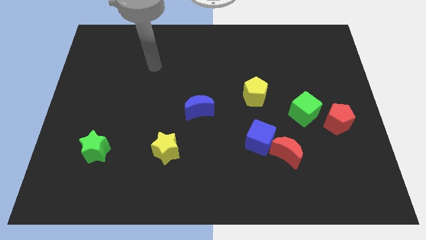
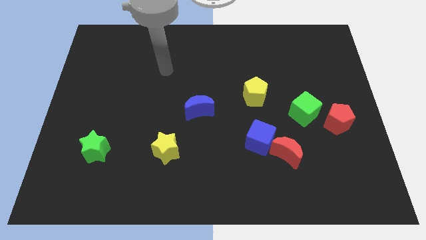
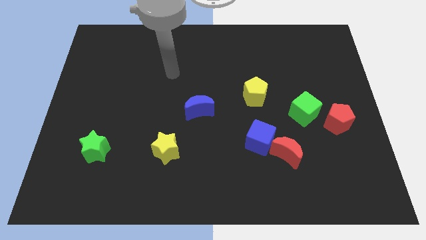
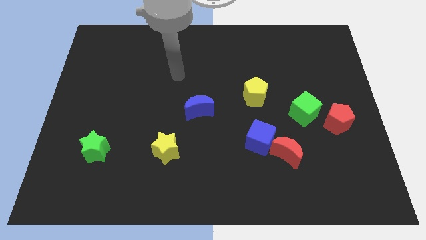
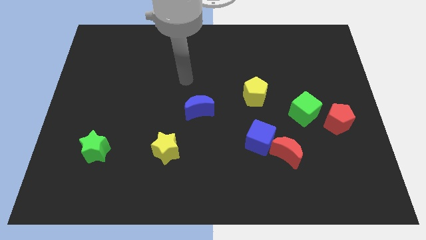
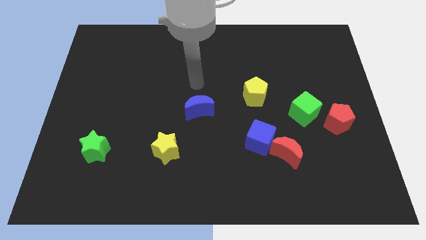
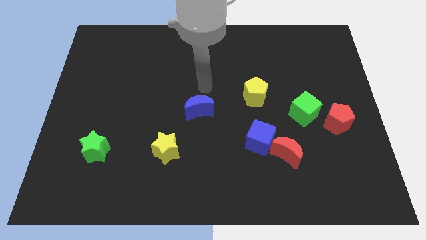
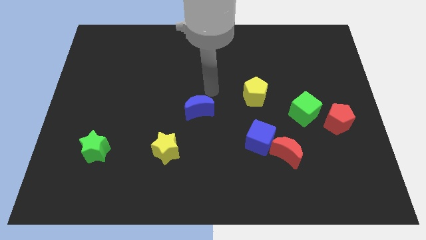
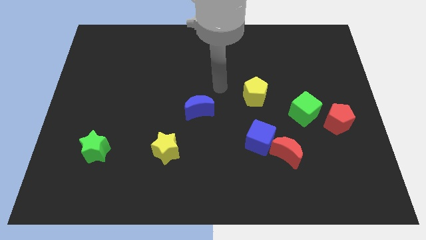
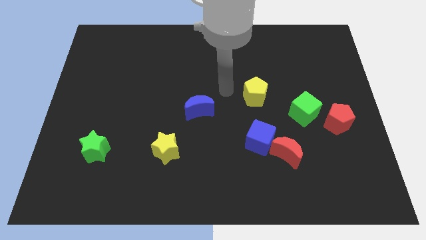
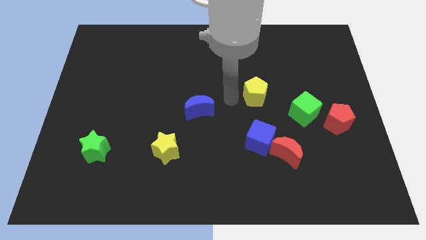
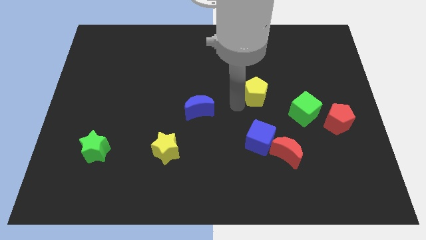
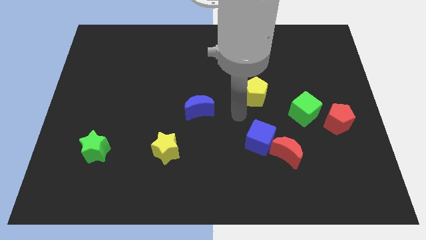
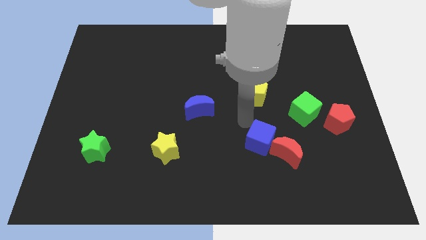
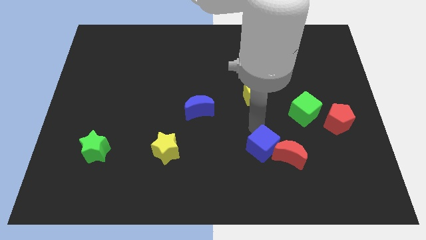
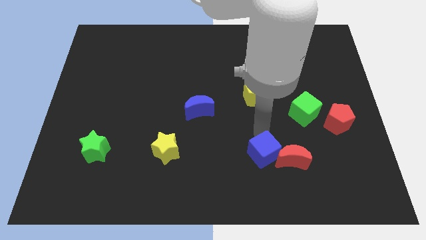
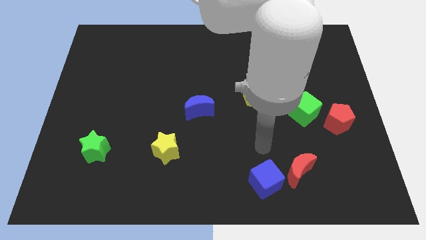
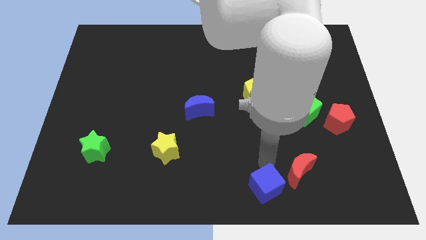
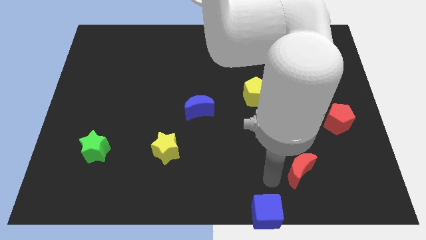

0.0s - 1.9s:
move the red moon away from the blue cube

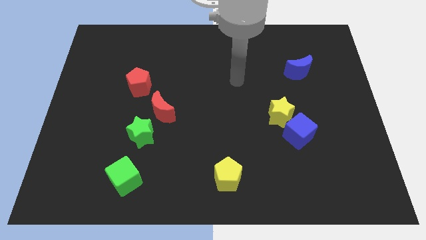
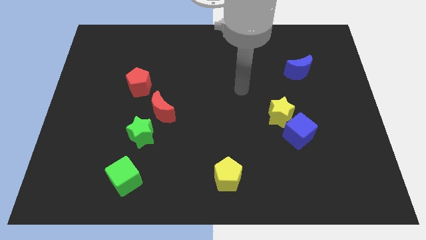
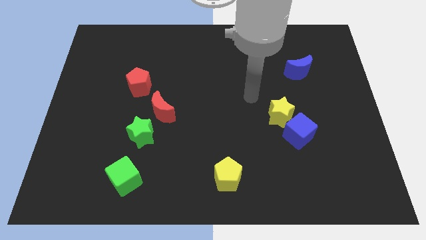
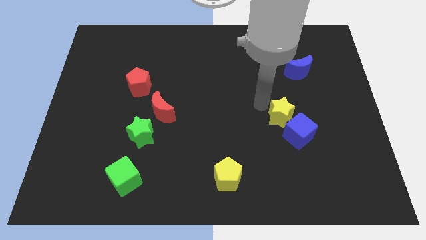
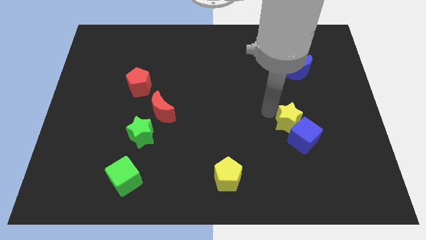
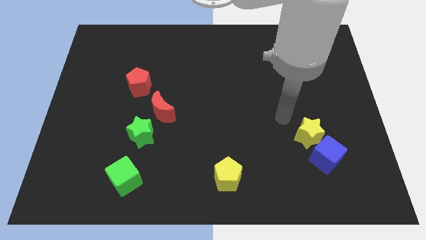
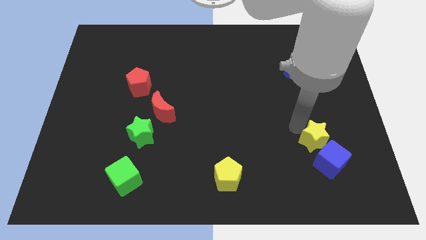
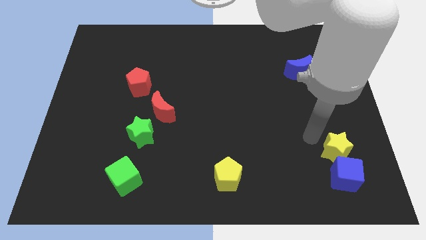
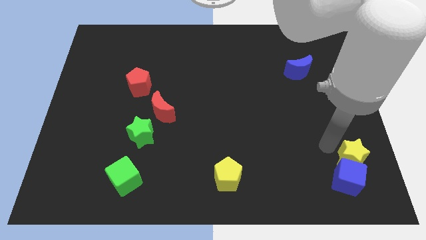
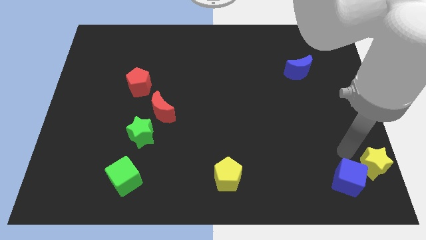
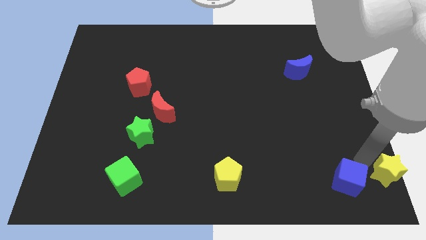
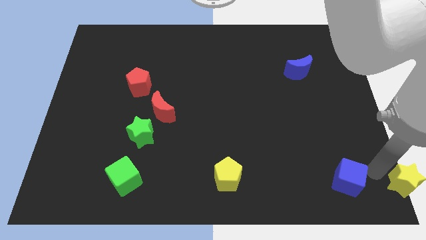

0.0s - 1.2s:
pull the blue cube apart from the yellow star

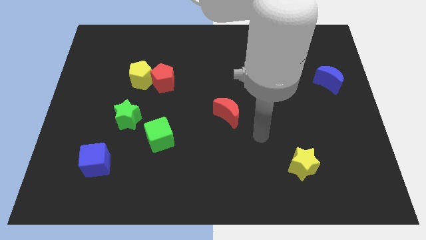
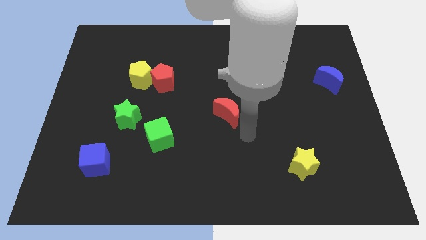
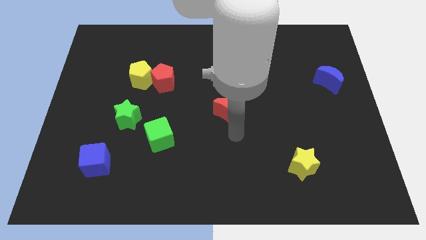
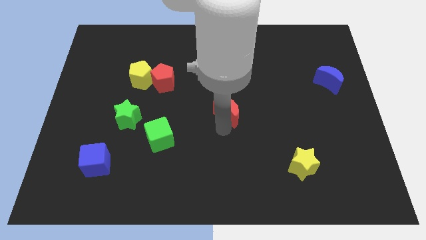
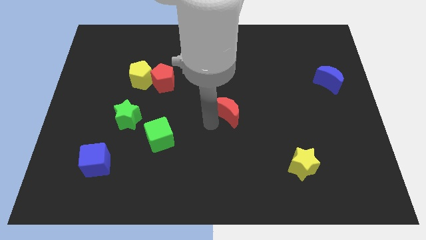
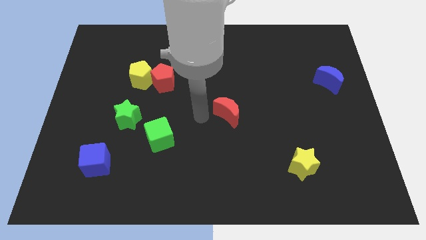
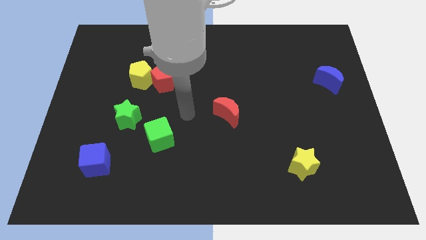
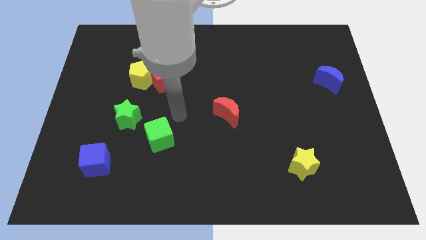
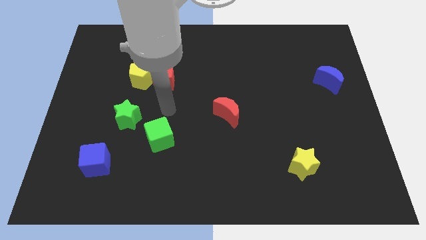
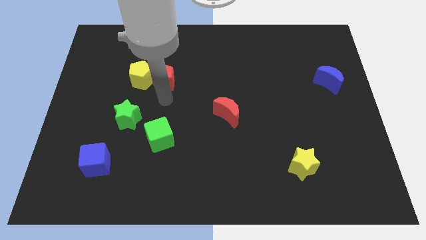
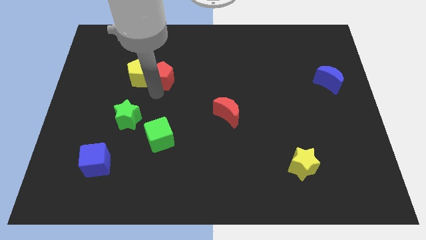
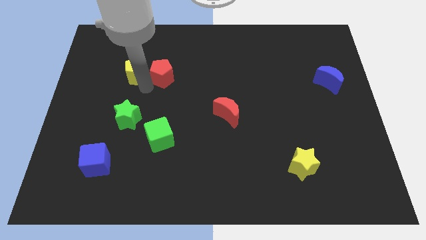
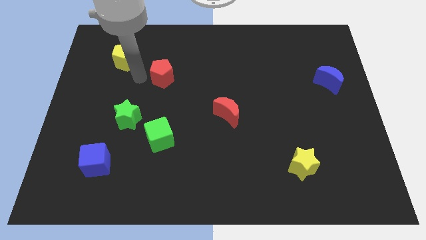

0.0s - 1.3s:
pull the red pentagon apart from the yellow pentagon

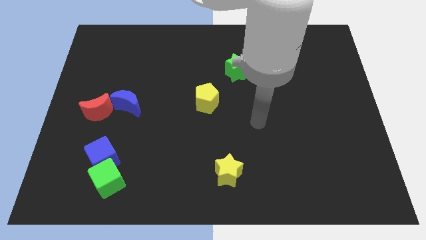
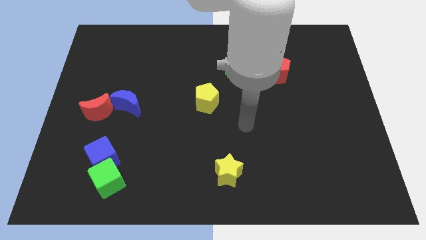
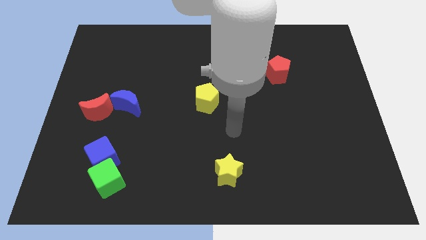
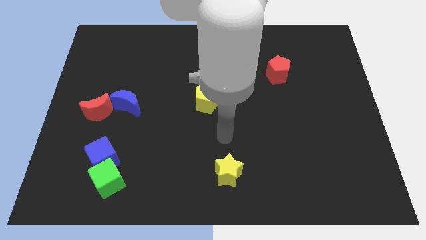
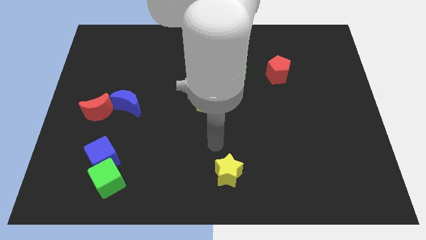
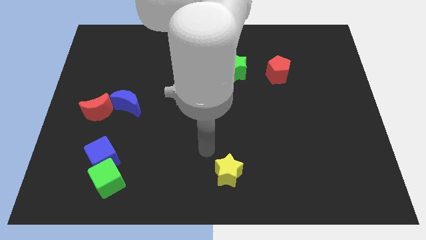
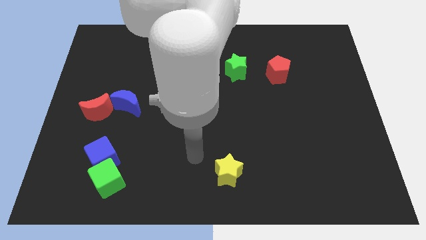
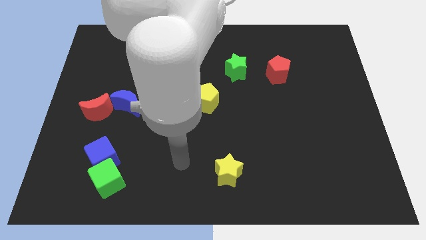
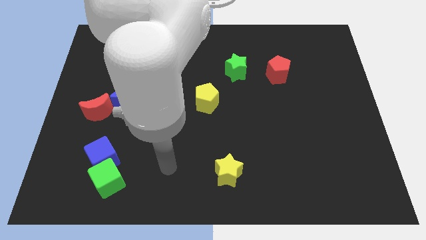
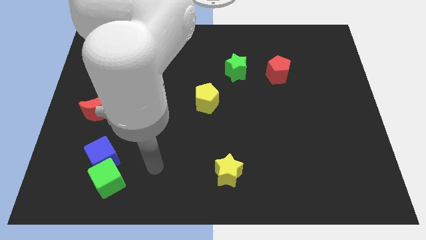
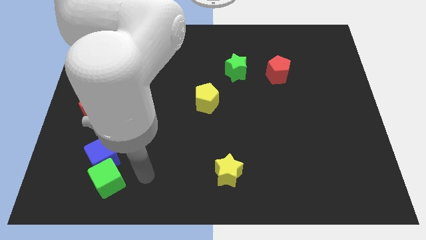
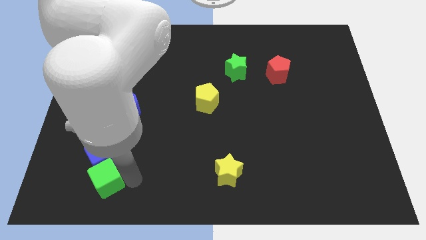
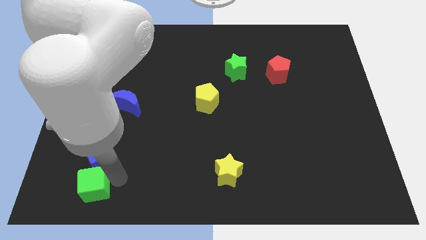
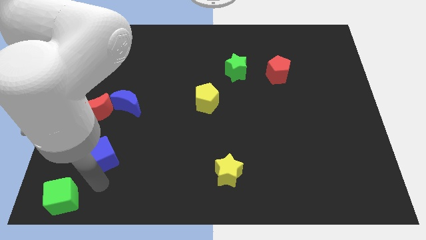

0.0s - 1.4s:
pull the blue cube apart from the green cube

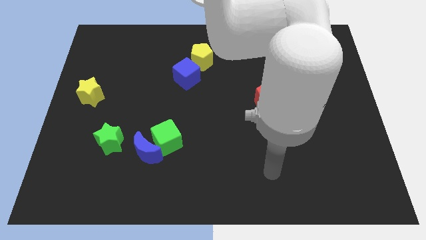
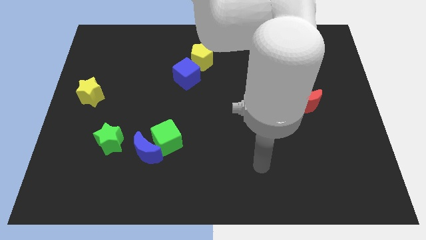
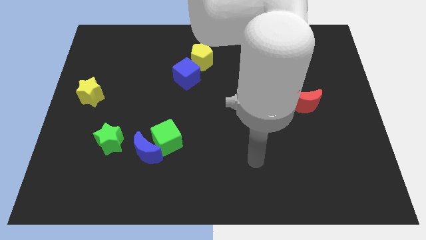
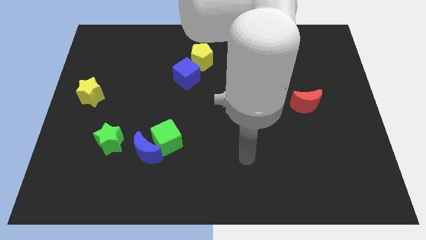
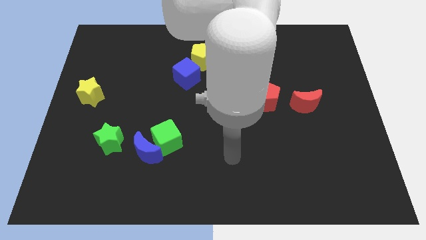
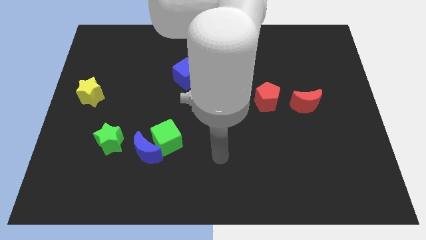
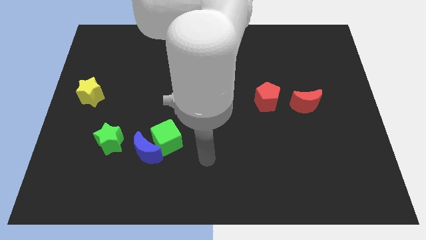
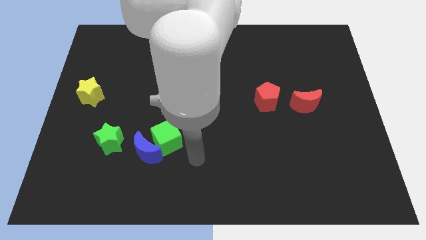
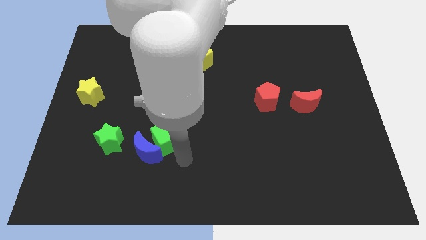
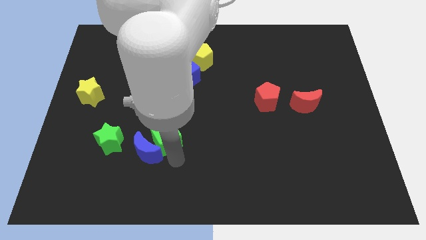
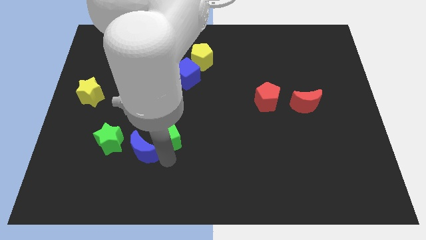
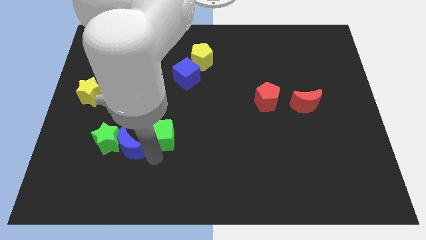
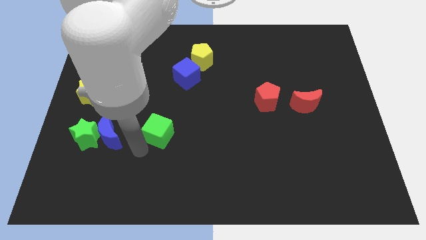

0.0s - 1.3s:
separate the green cube from the blue moon

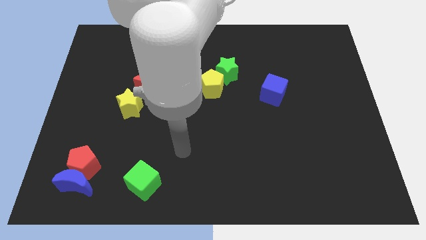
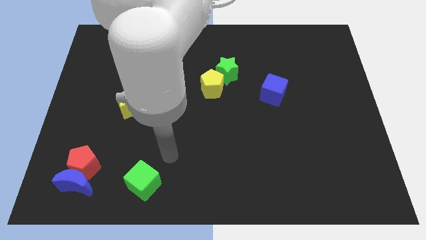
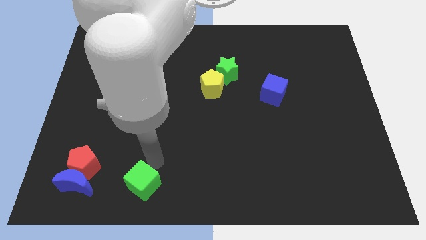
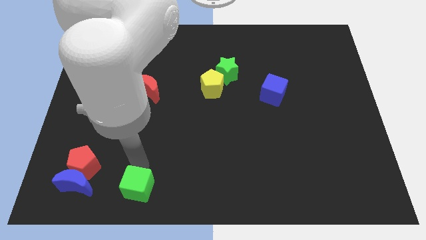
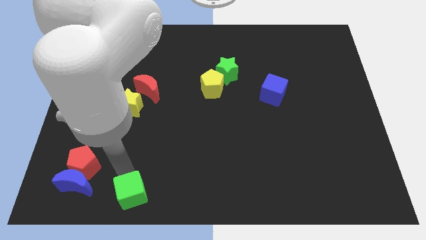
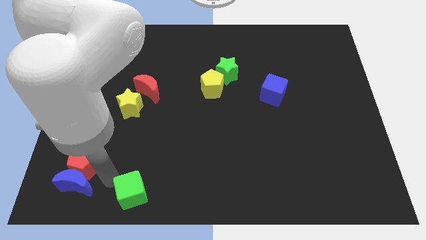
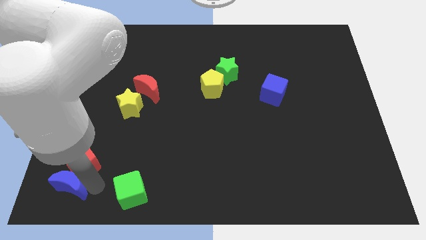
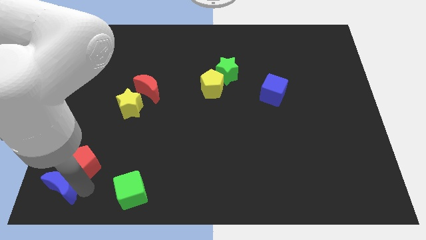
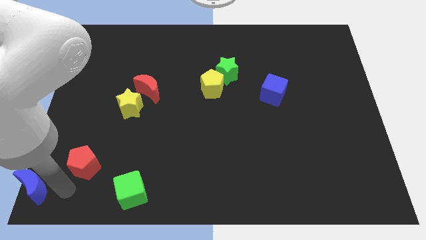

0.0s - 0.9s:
move the red pentagon away from the blue moon

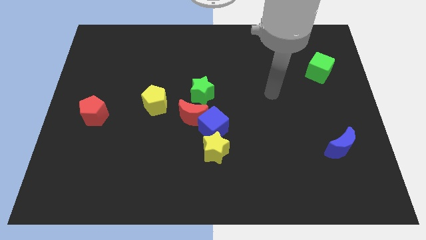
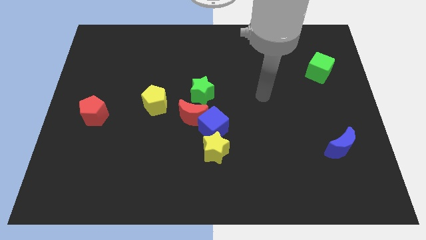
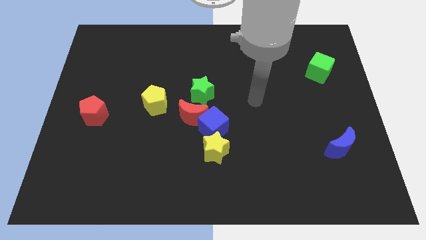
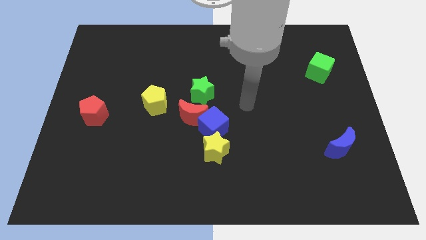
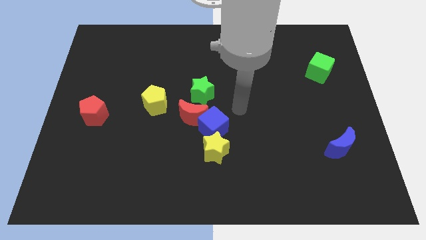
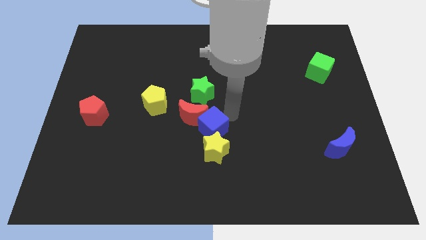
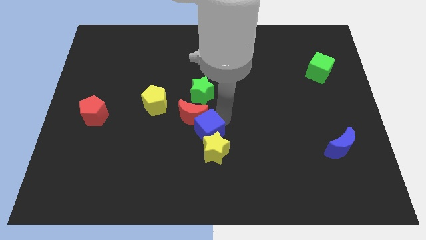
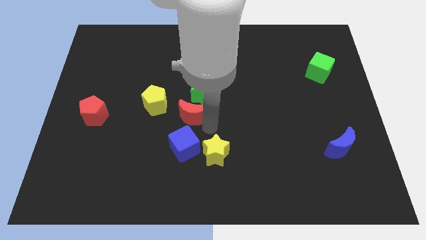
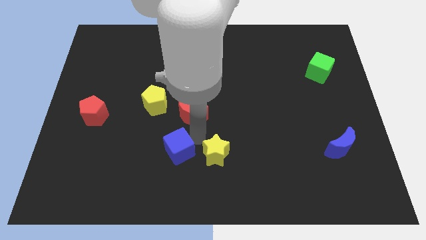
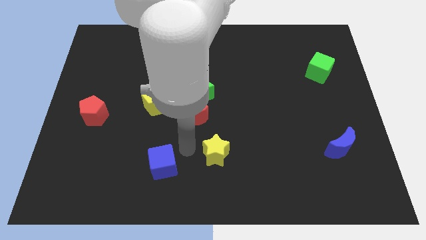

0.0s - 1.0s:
pull the yellow star apart from the blue cube

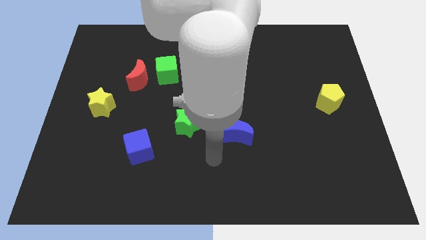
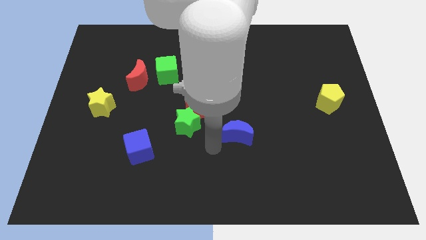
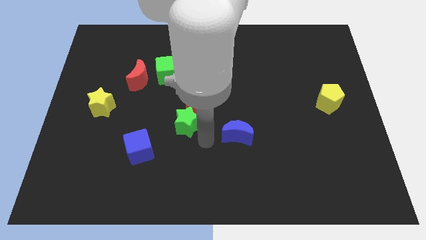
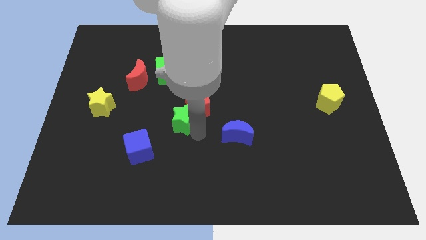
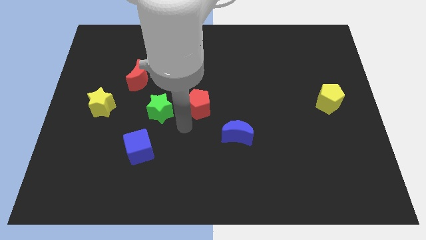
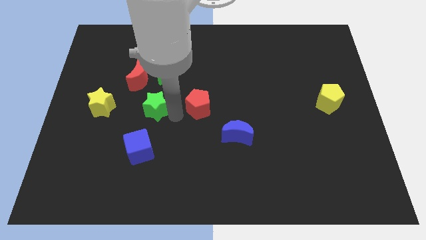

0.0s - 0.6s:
separate the red pentagon from the green star
